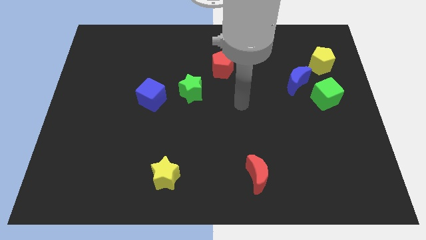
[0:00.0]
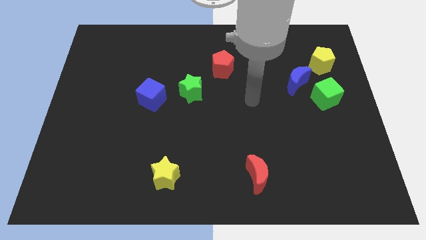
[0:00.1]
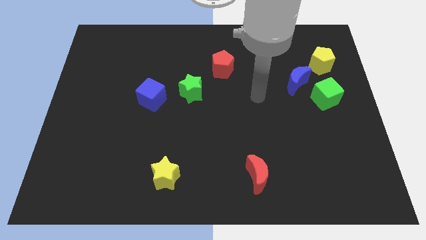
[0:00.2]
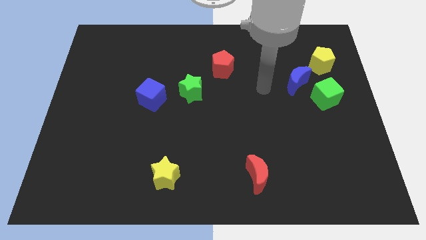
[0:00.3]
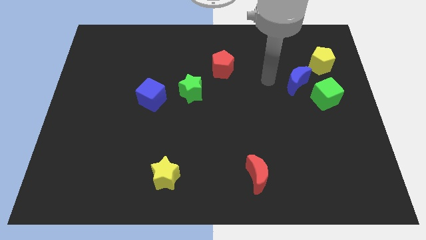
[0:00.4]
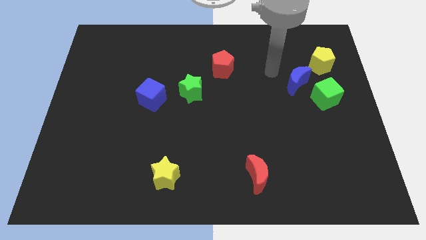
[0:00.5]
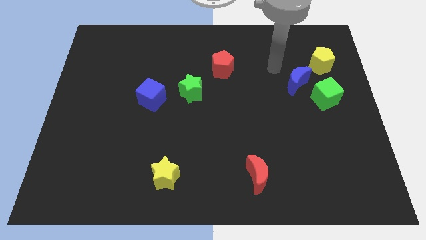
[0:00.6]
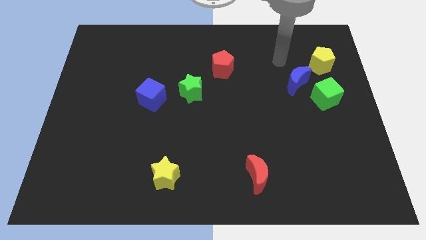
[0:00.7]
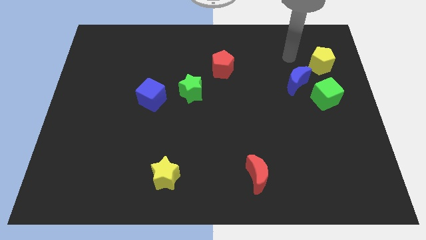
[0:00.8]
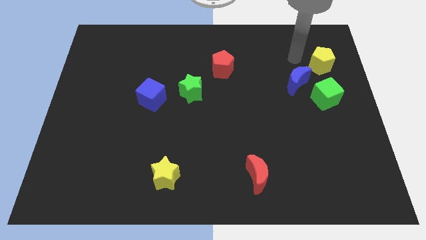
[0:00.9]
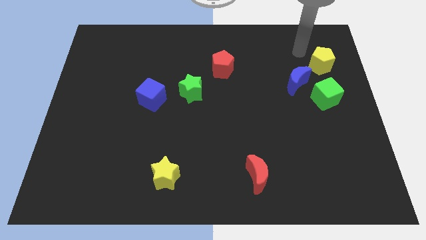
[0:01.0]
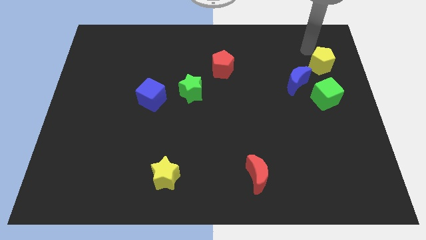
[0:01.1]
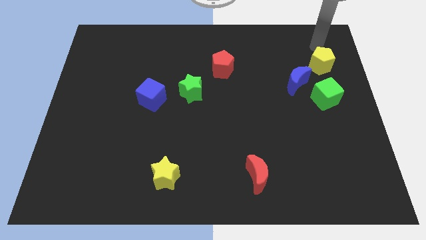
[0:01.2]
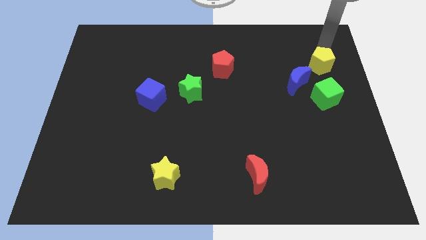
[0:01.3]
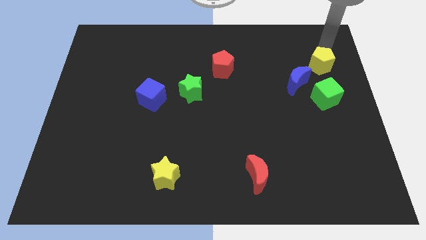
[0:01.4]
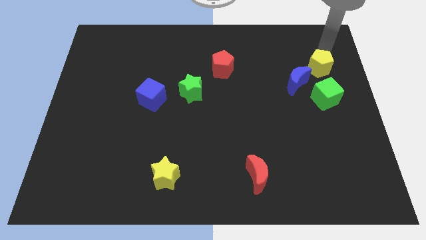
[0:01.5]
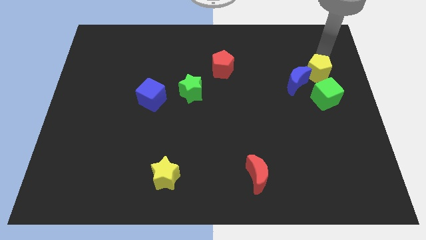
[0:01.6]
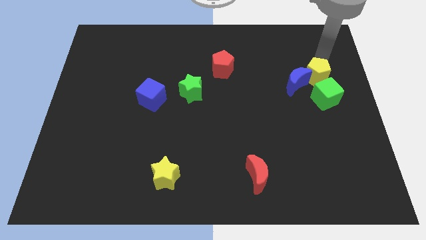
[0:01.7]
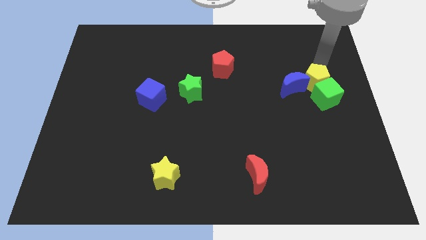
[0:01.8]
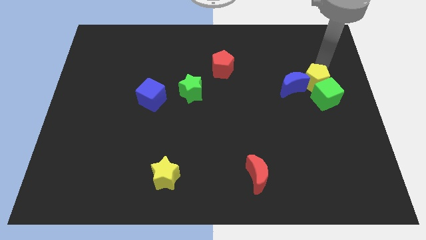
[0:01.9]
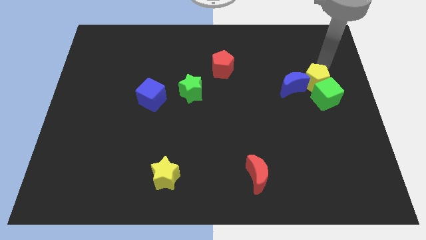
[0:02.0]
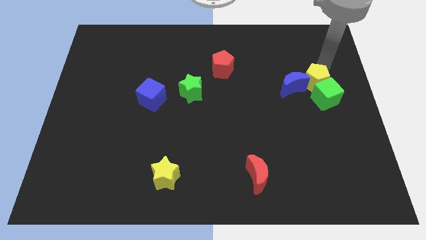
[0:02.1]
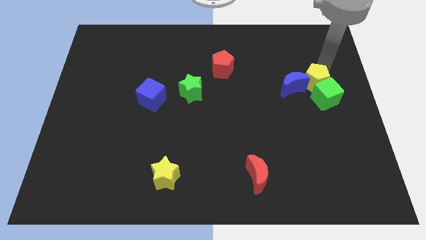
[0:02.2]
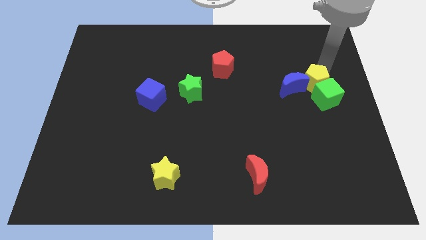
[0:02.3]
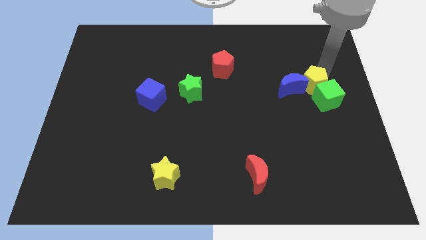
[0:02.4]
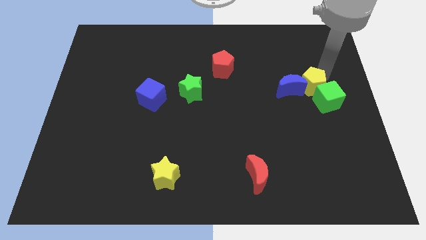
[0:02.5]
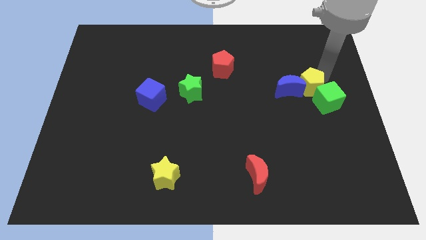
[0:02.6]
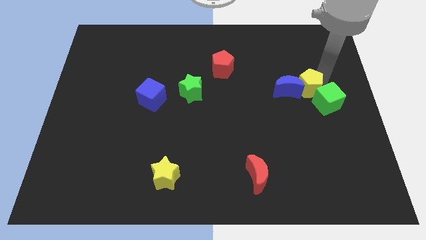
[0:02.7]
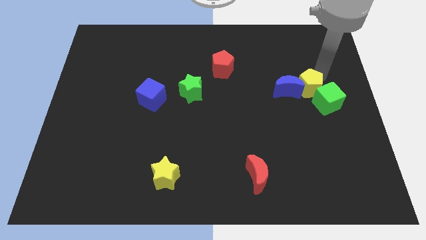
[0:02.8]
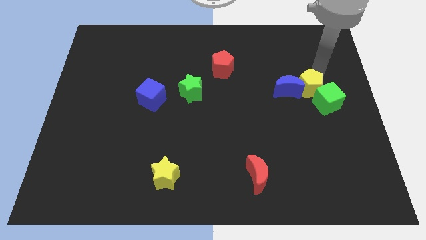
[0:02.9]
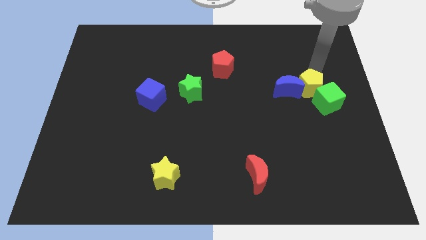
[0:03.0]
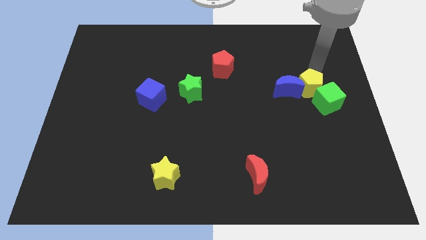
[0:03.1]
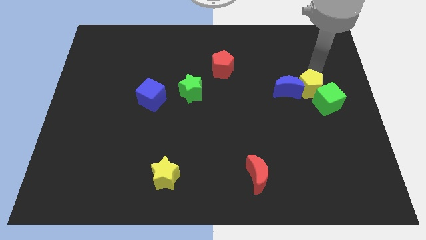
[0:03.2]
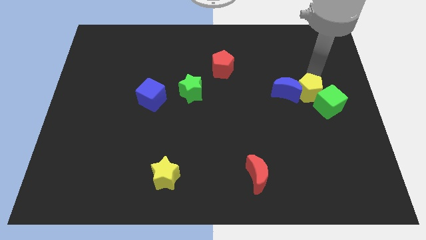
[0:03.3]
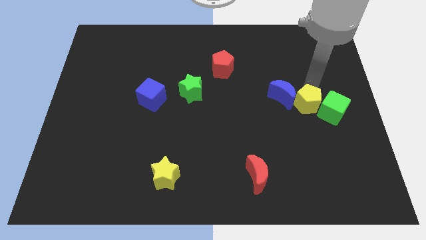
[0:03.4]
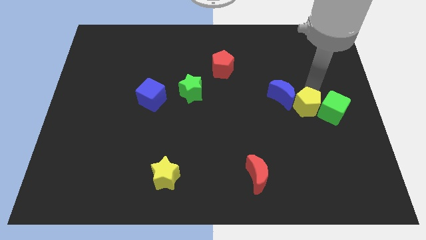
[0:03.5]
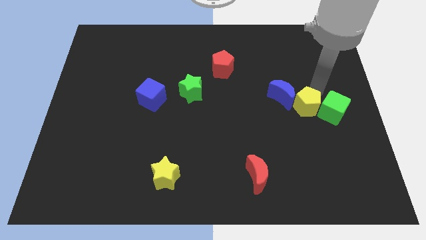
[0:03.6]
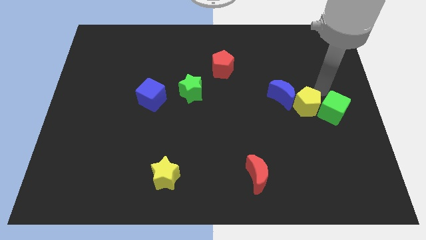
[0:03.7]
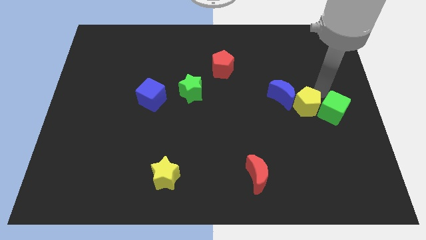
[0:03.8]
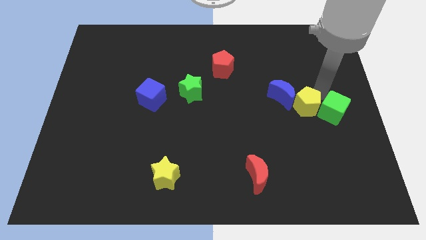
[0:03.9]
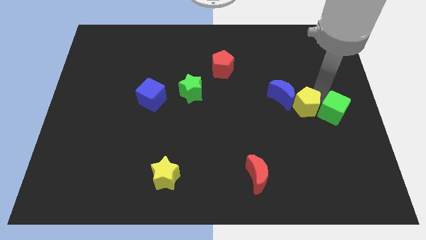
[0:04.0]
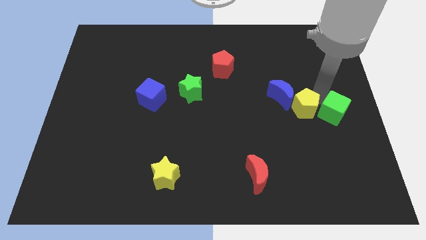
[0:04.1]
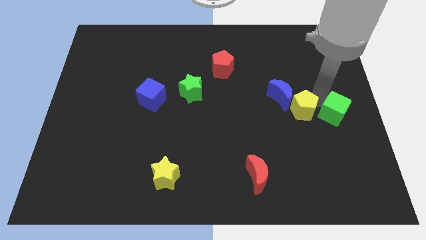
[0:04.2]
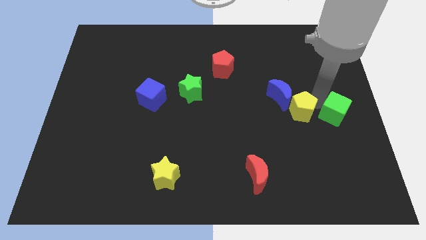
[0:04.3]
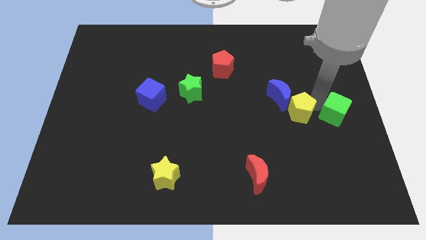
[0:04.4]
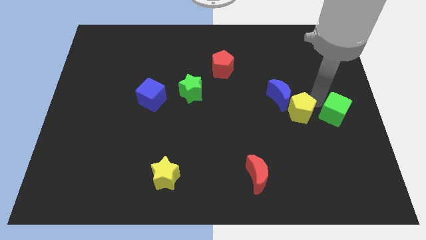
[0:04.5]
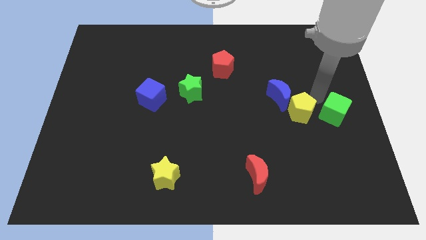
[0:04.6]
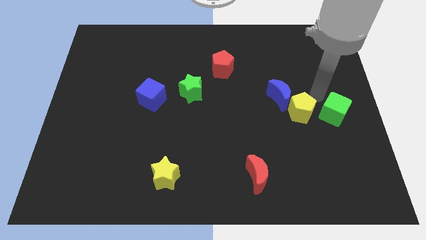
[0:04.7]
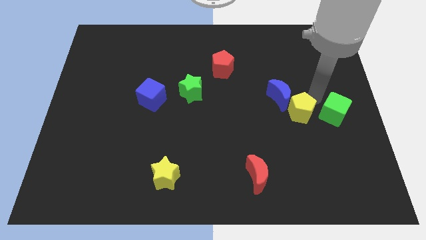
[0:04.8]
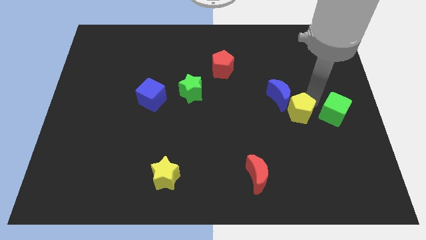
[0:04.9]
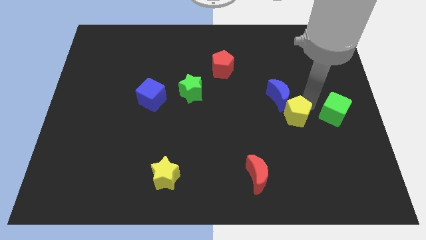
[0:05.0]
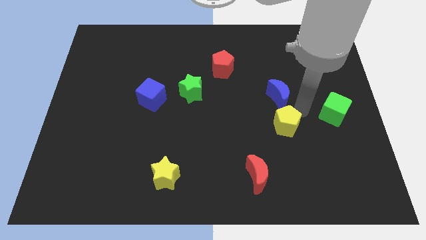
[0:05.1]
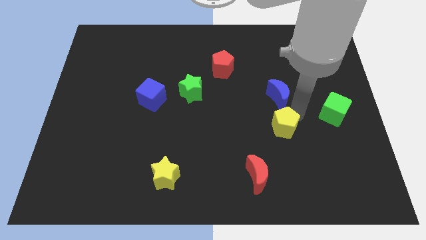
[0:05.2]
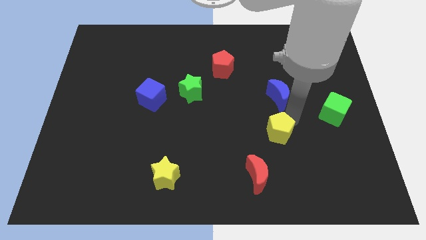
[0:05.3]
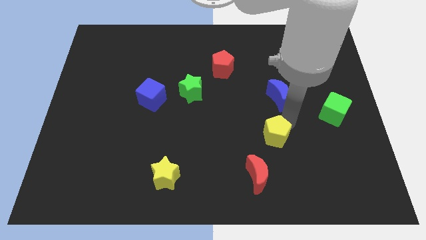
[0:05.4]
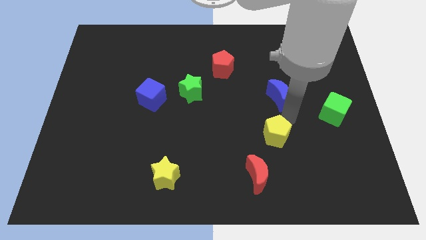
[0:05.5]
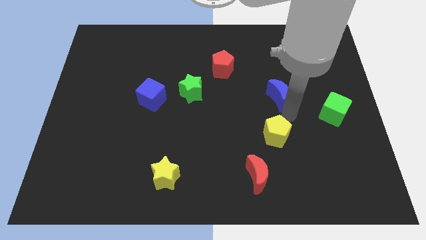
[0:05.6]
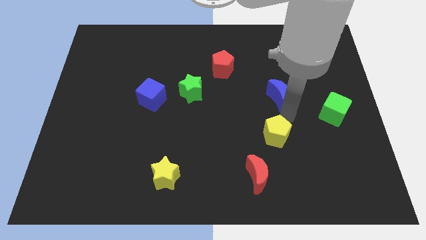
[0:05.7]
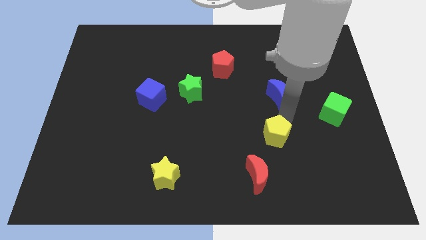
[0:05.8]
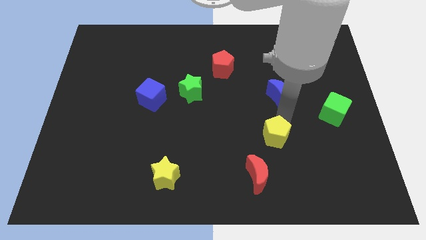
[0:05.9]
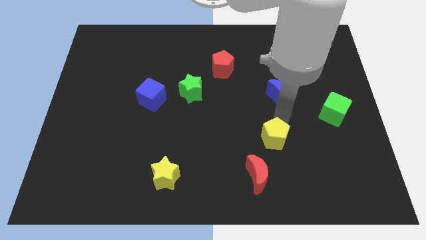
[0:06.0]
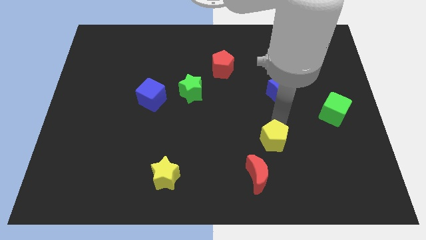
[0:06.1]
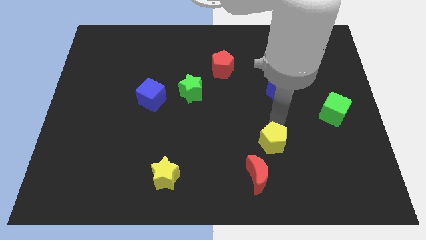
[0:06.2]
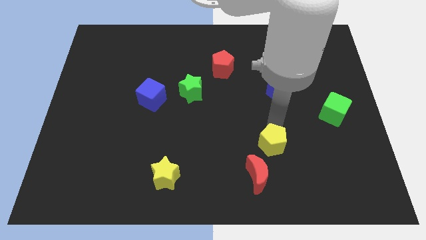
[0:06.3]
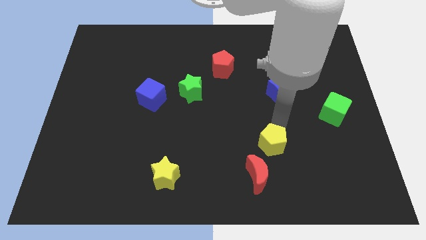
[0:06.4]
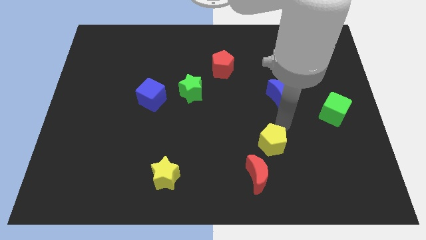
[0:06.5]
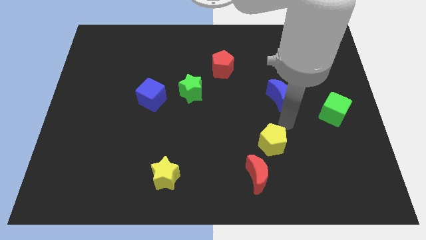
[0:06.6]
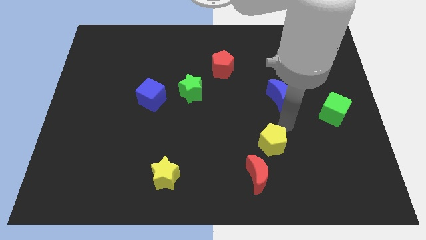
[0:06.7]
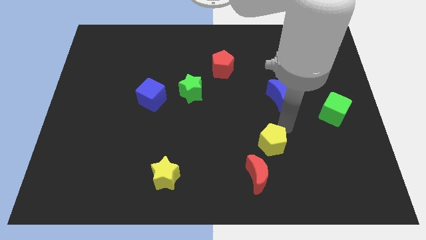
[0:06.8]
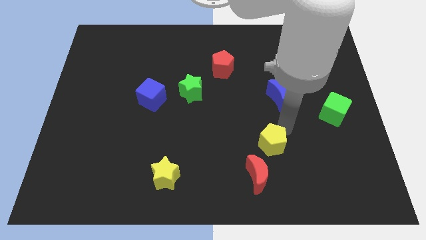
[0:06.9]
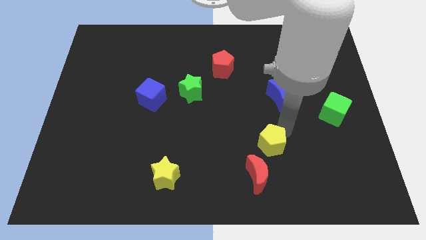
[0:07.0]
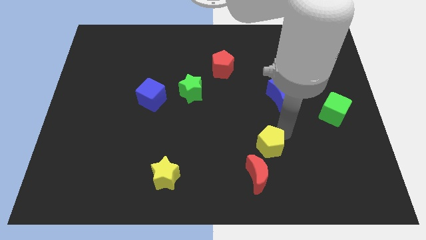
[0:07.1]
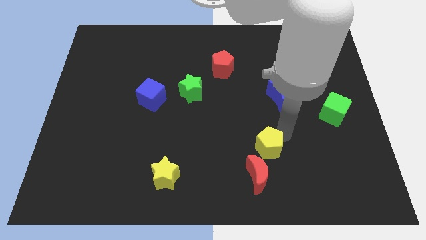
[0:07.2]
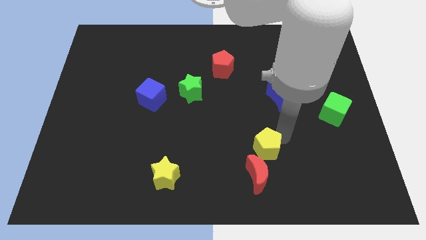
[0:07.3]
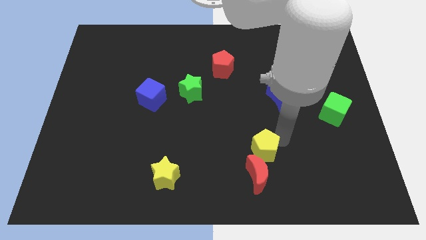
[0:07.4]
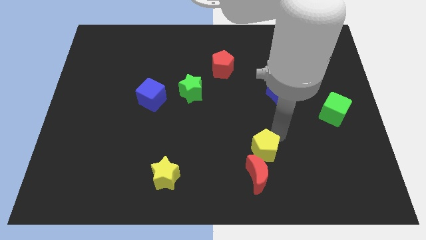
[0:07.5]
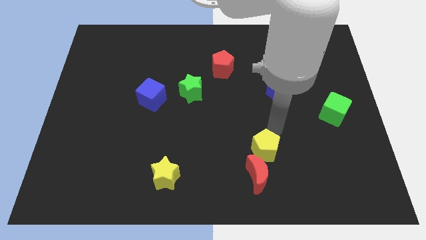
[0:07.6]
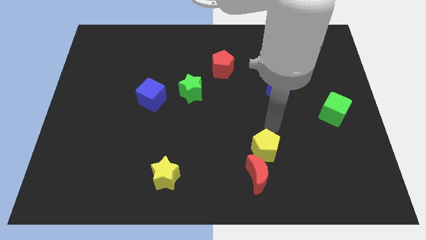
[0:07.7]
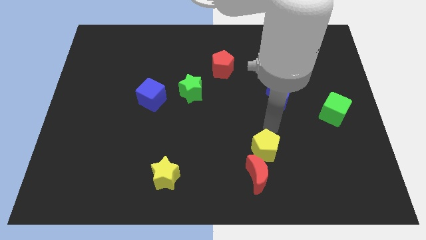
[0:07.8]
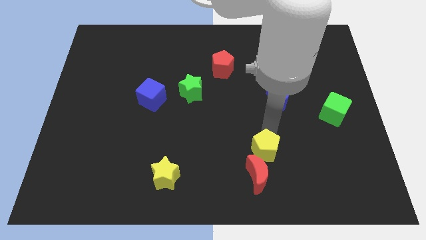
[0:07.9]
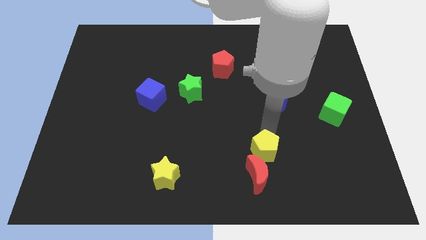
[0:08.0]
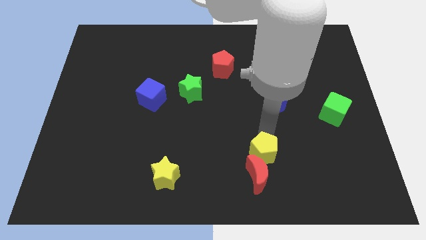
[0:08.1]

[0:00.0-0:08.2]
push the yellow pentagon close to the red moon
